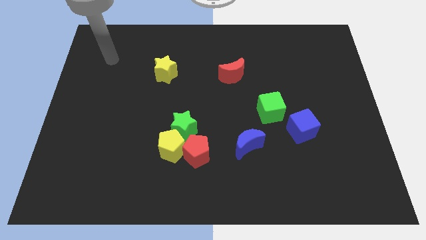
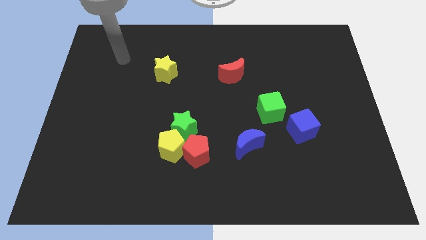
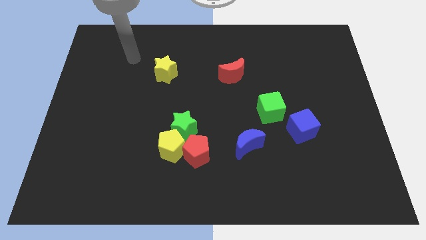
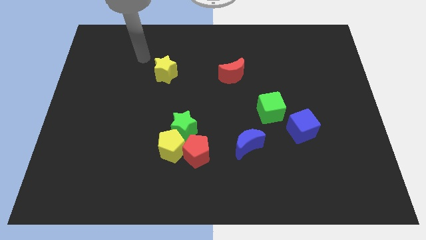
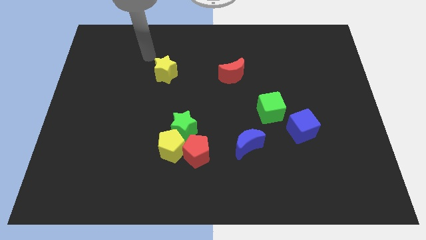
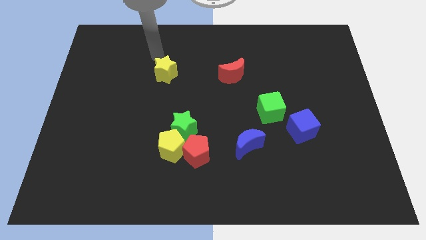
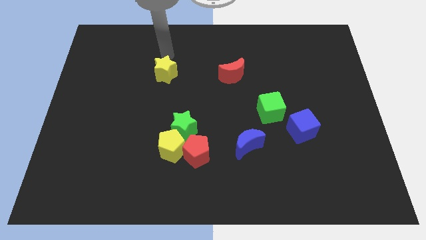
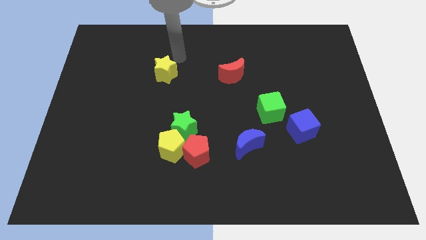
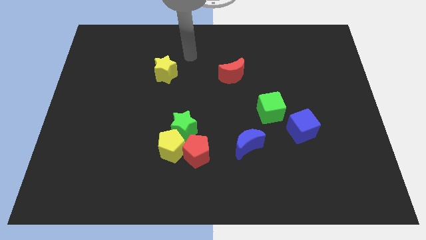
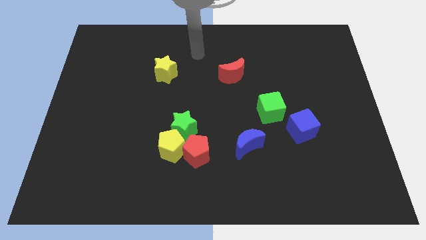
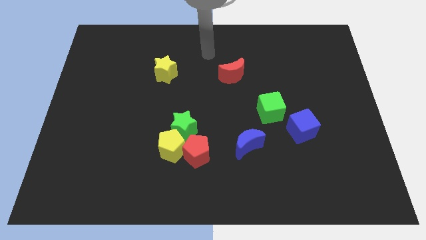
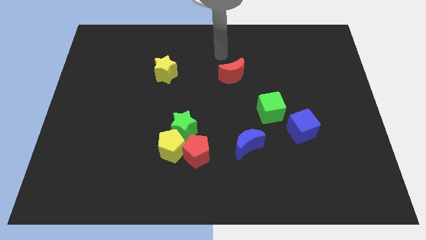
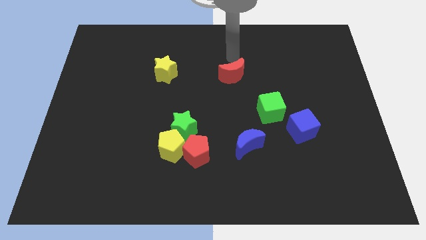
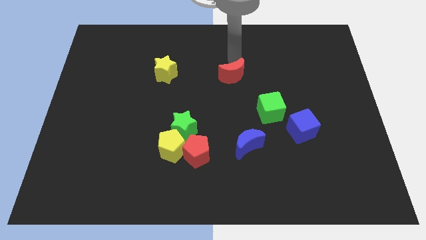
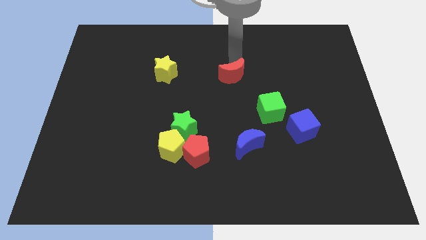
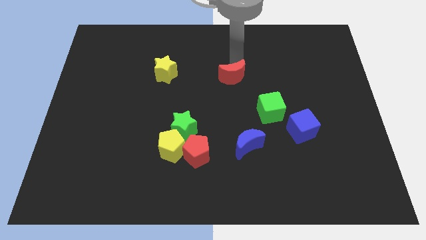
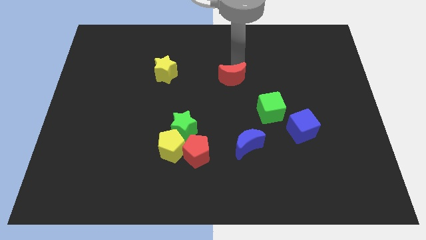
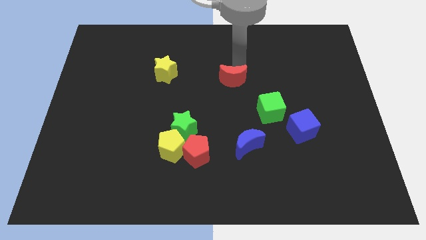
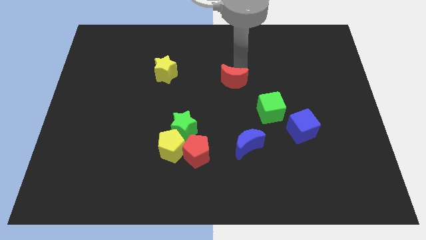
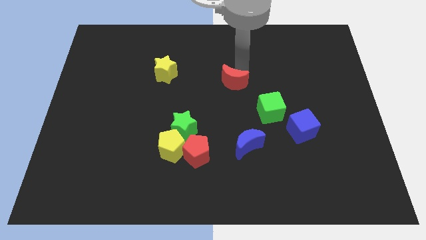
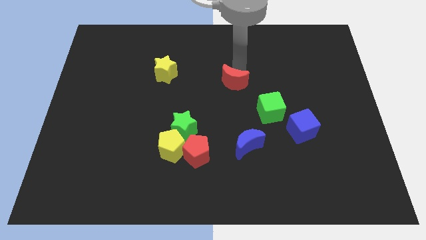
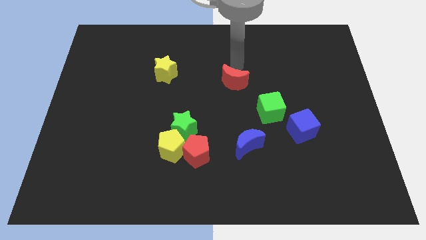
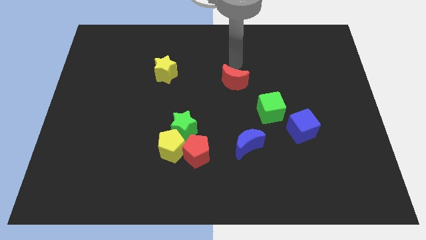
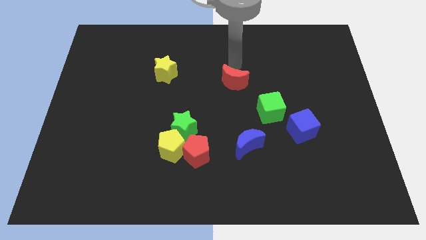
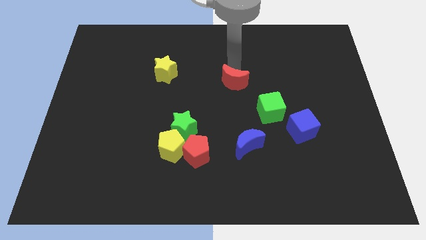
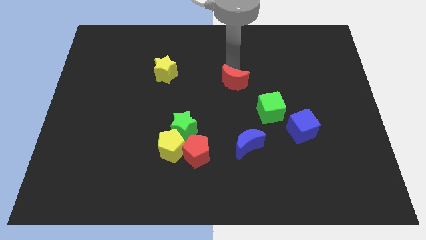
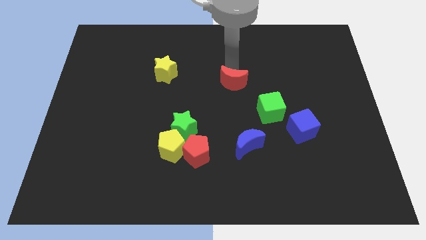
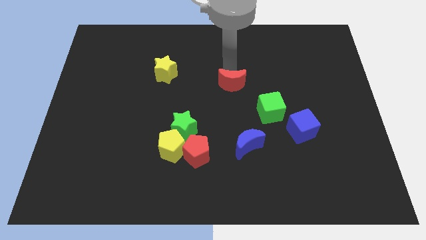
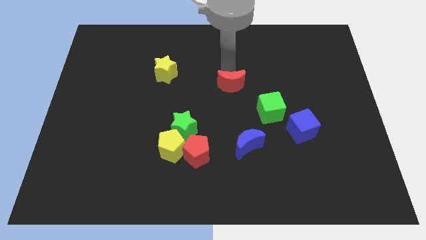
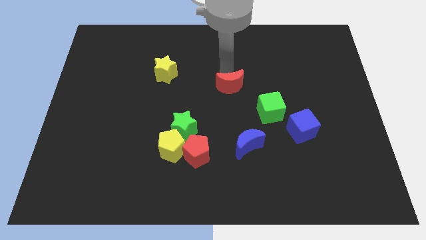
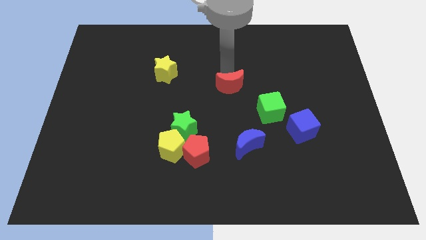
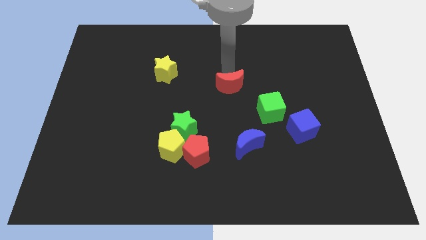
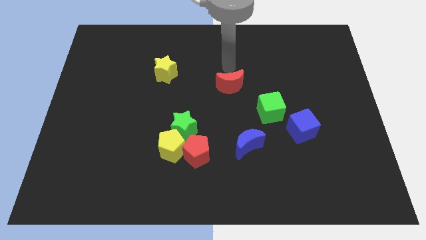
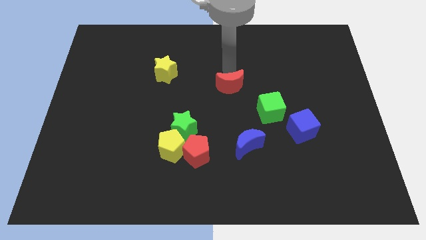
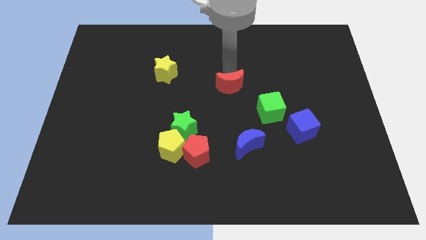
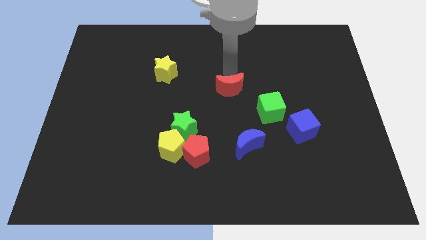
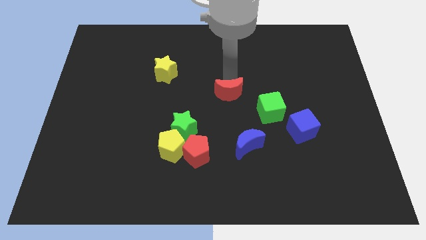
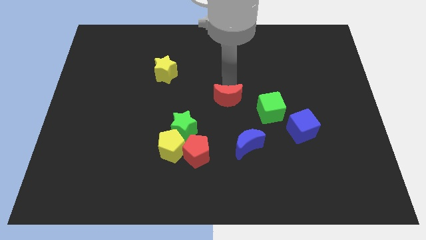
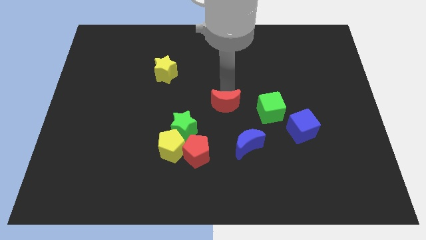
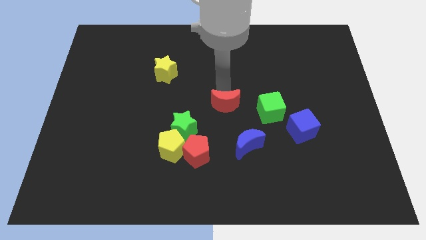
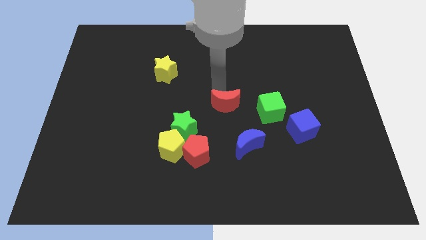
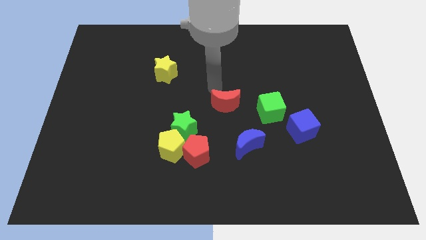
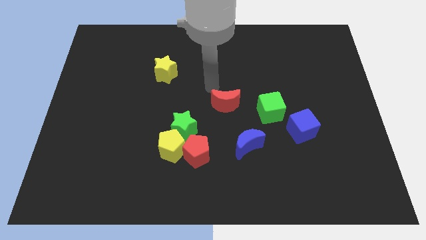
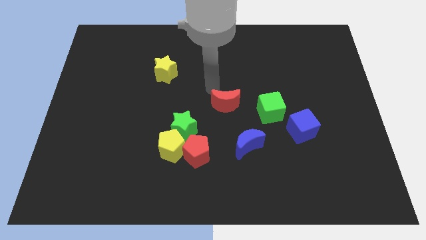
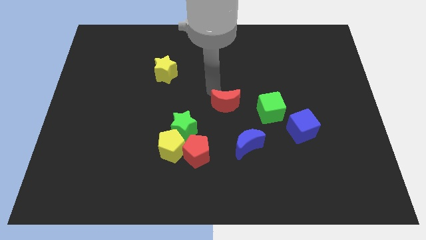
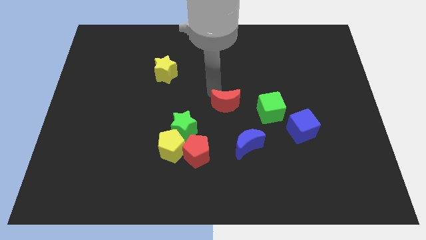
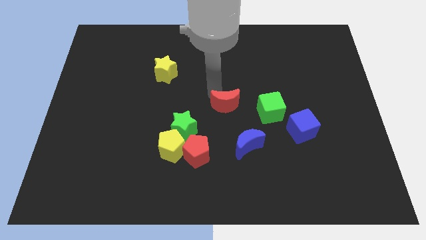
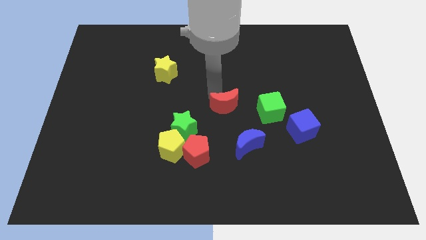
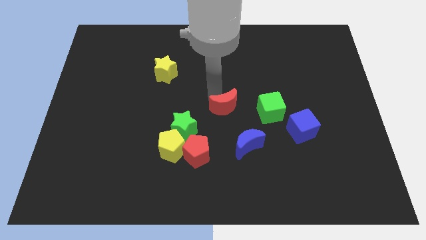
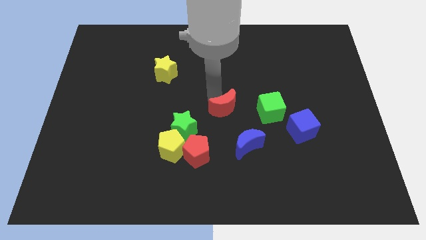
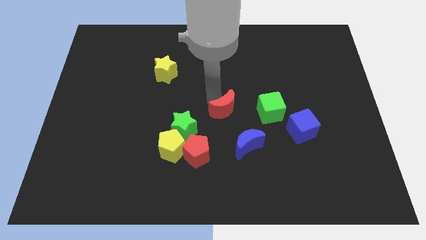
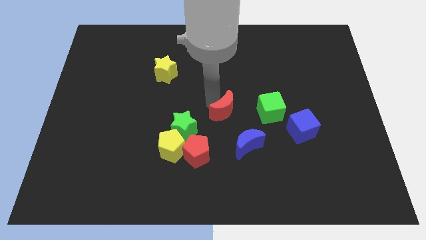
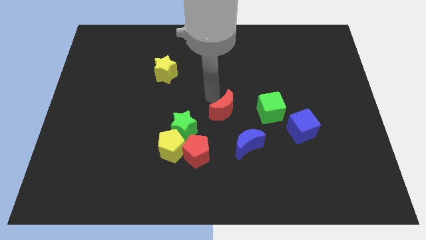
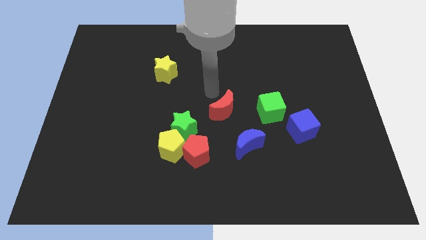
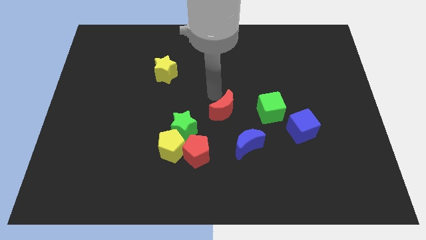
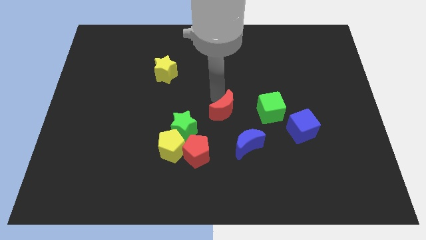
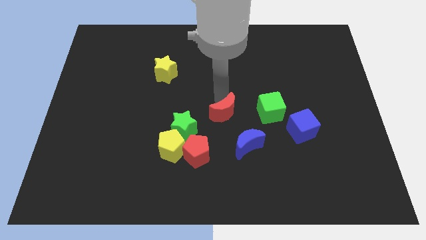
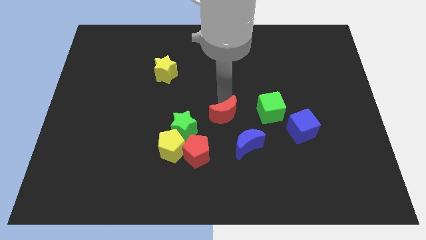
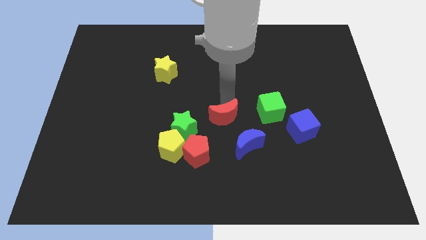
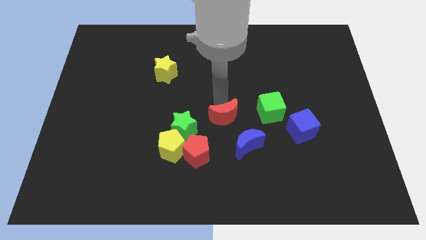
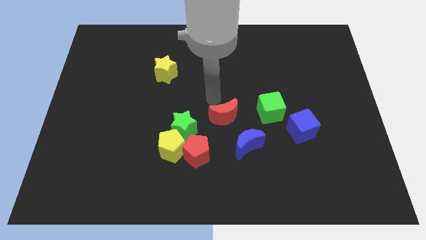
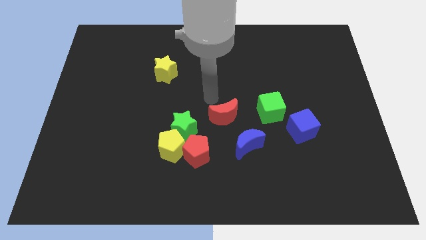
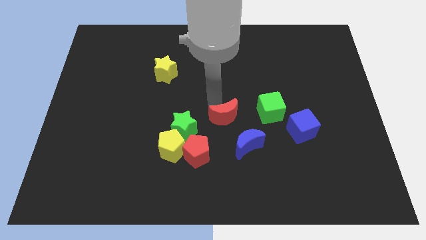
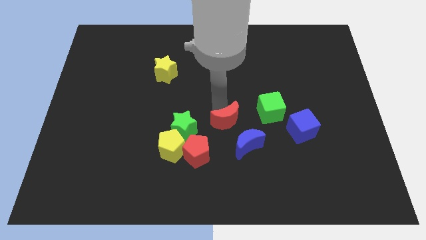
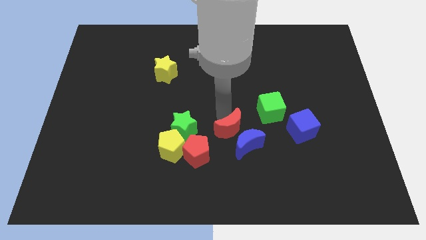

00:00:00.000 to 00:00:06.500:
slide the red moon next to the blue moon

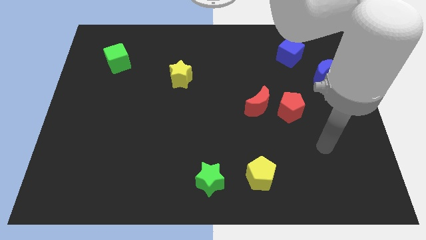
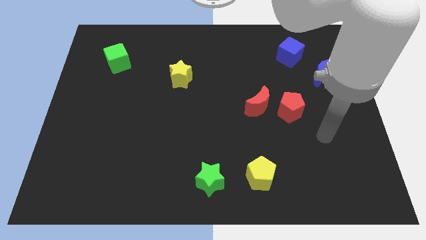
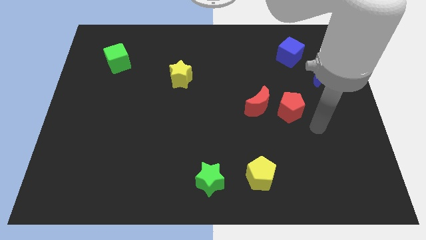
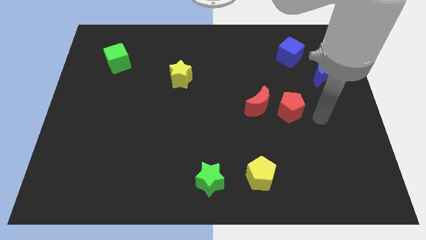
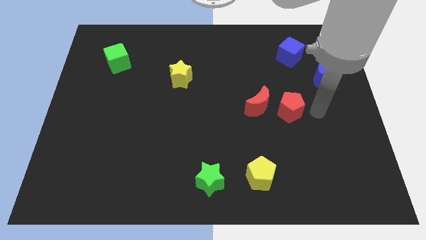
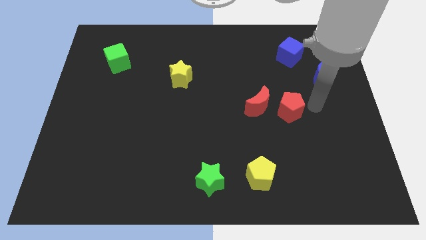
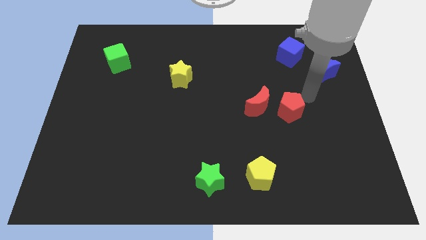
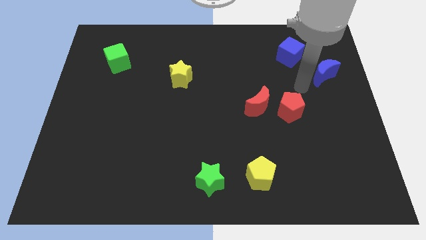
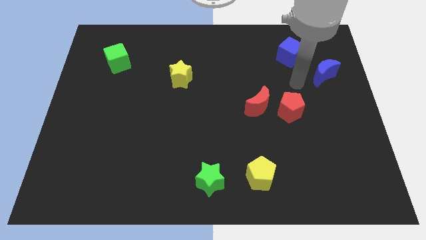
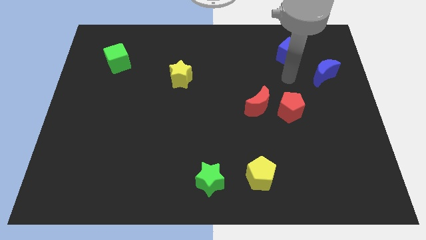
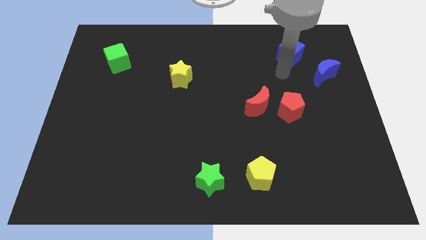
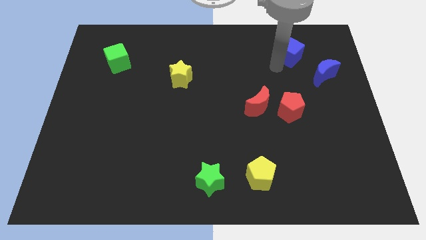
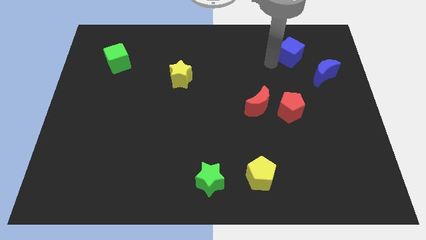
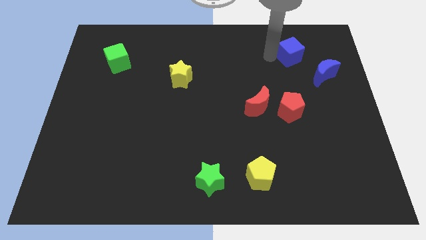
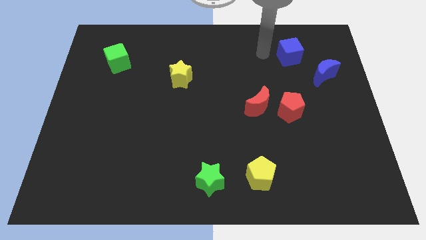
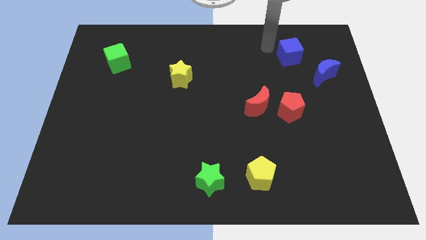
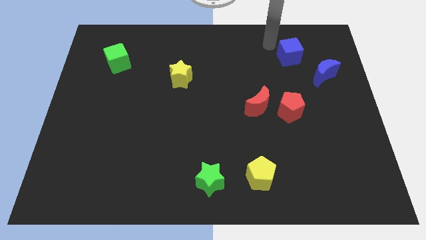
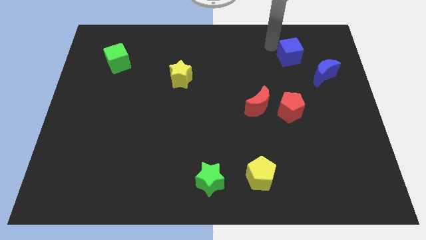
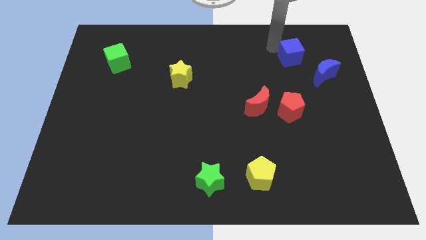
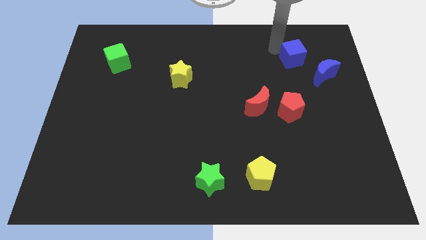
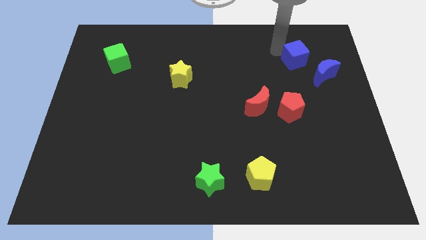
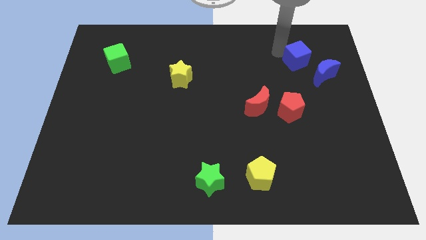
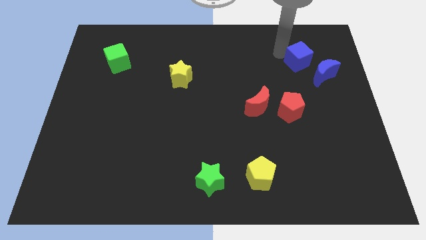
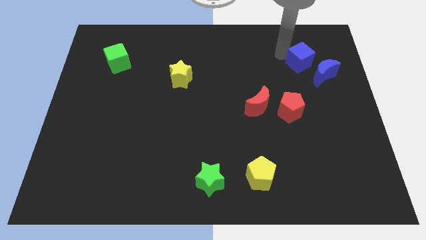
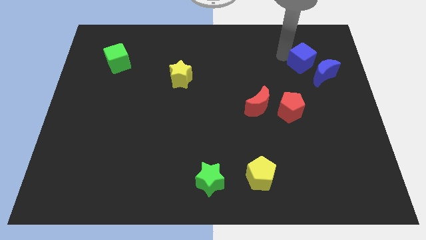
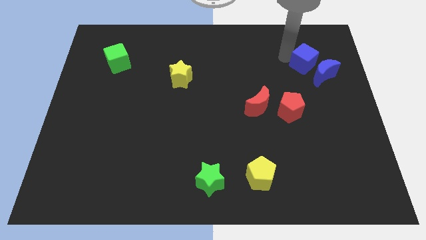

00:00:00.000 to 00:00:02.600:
put the blue cube close to the blue moon
